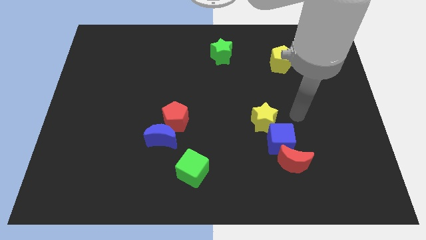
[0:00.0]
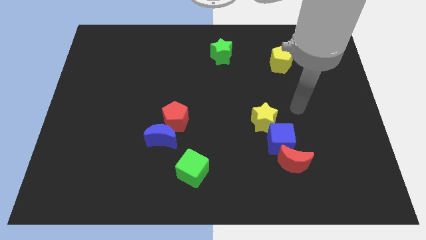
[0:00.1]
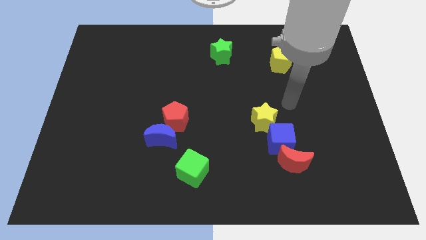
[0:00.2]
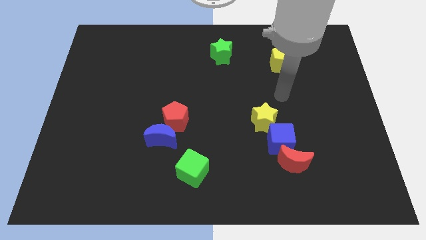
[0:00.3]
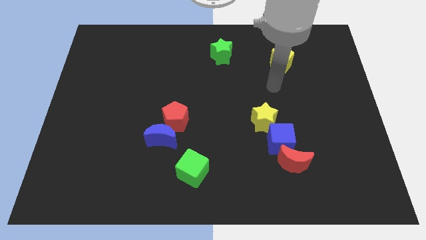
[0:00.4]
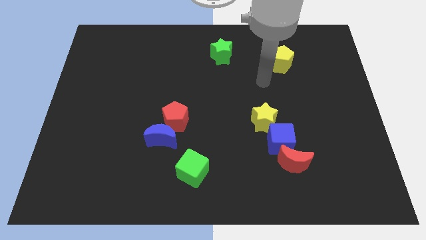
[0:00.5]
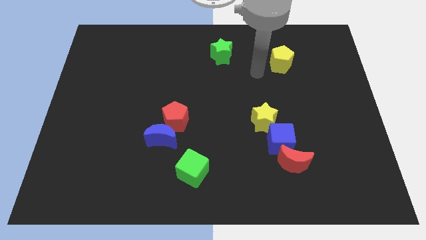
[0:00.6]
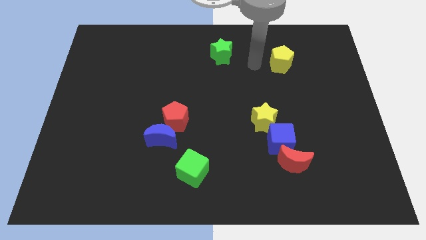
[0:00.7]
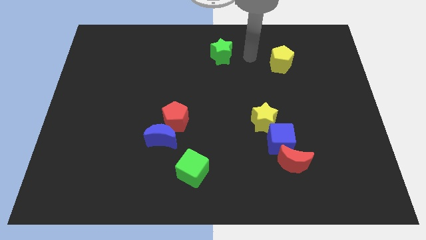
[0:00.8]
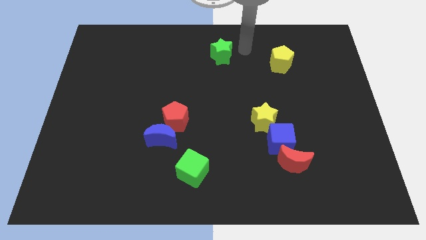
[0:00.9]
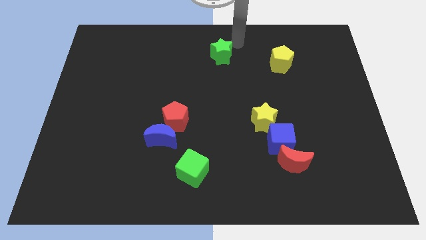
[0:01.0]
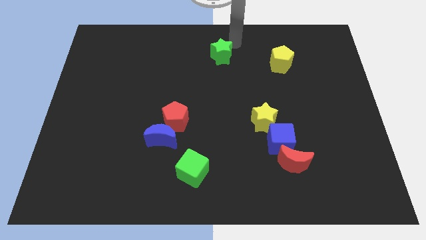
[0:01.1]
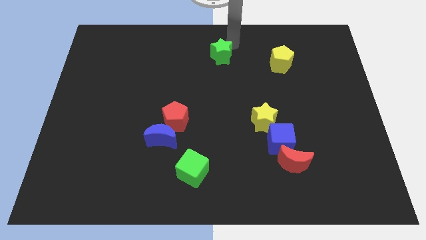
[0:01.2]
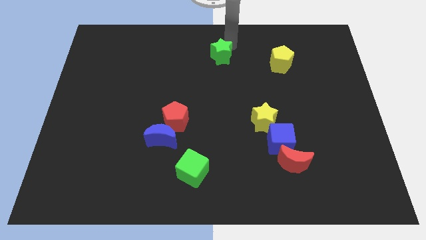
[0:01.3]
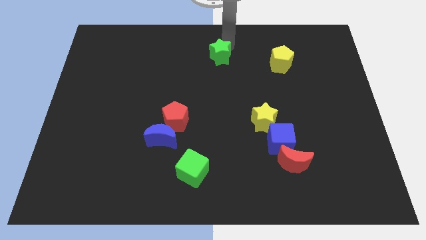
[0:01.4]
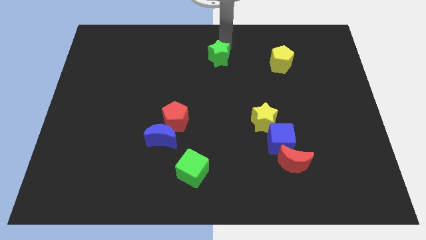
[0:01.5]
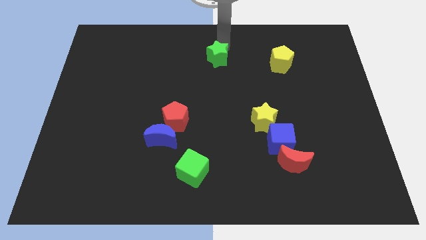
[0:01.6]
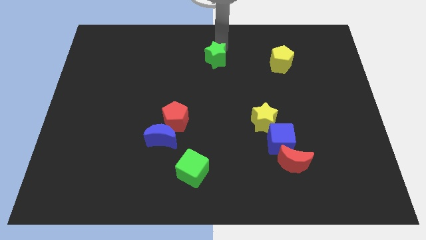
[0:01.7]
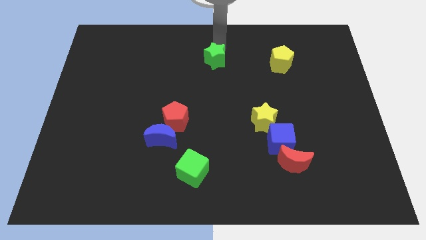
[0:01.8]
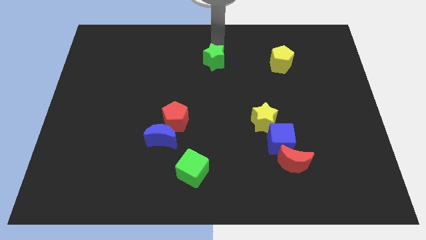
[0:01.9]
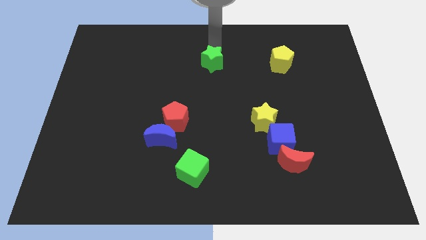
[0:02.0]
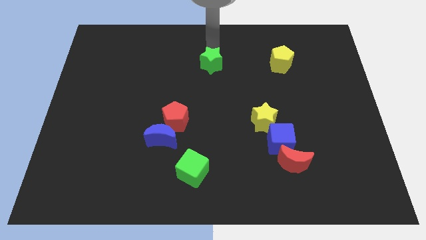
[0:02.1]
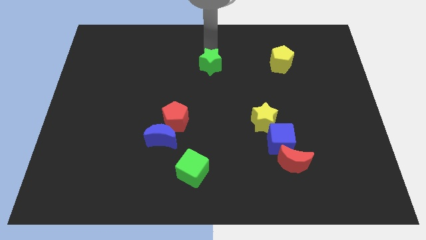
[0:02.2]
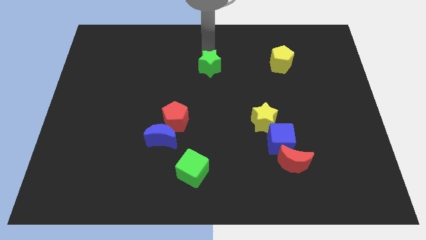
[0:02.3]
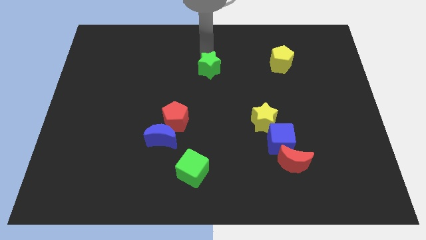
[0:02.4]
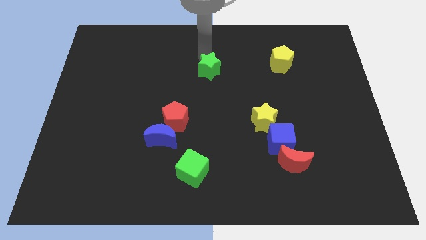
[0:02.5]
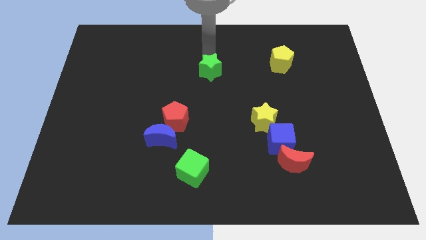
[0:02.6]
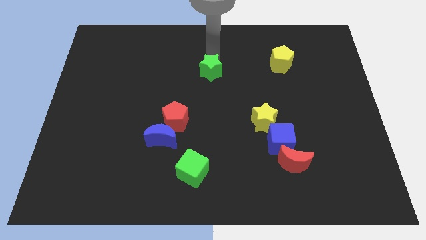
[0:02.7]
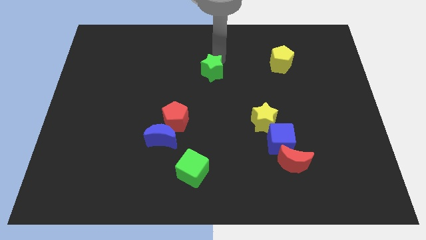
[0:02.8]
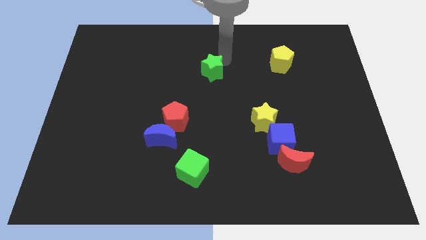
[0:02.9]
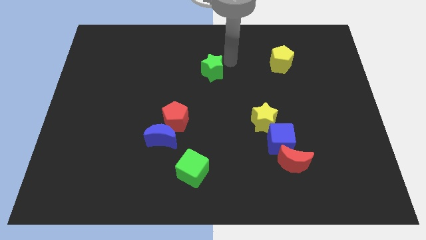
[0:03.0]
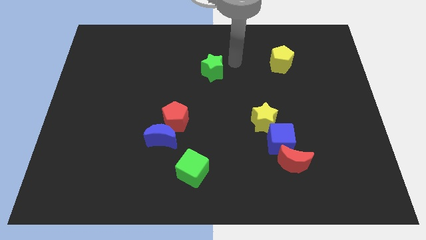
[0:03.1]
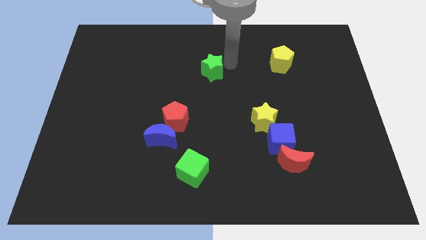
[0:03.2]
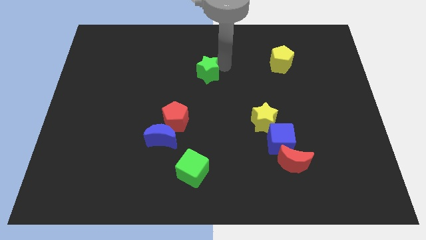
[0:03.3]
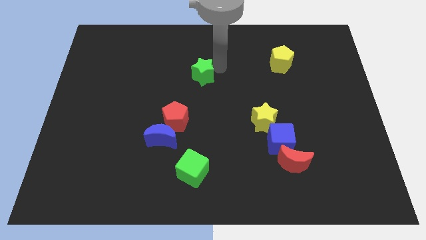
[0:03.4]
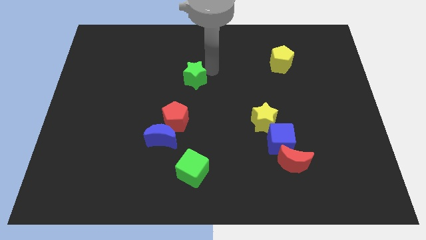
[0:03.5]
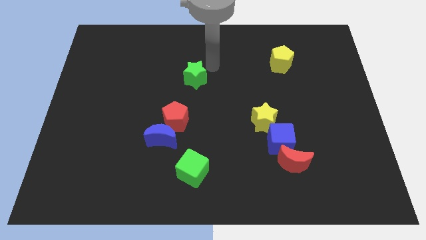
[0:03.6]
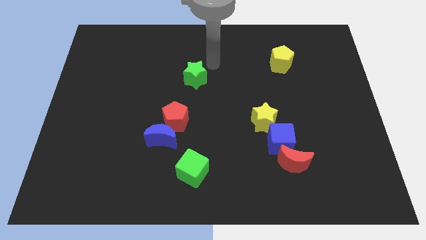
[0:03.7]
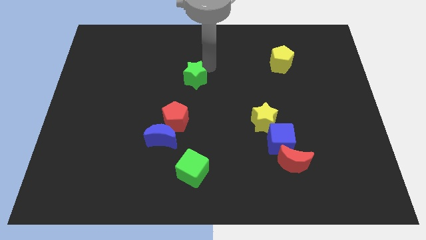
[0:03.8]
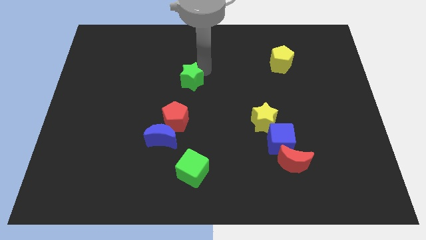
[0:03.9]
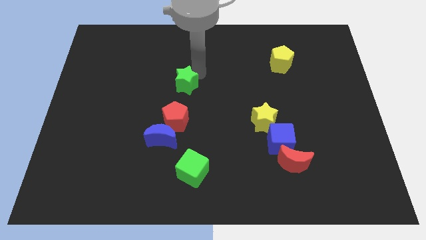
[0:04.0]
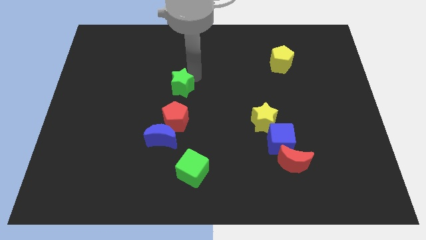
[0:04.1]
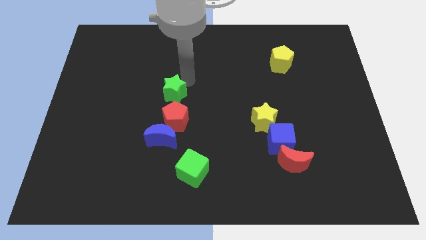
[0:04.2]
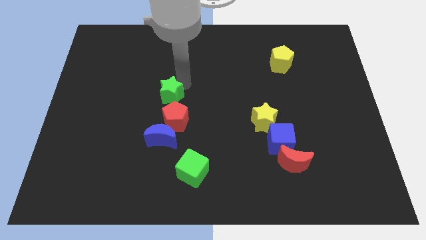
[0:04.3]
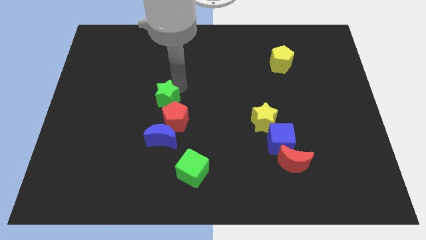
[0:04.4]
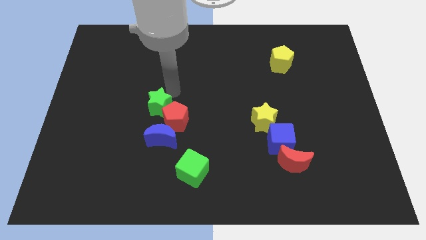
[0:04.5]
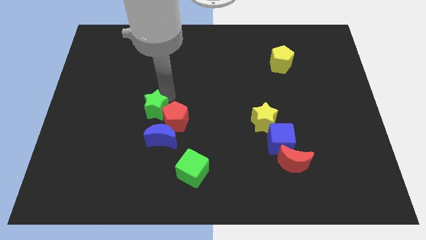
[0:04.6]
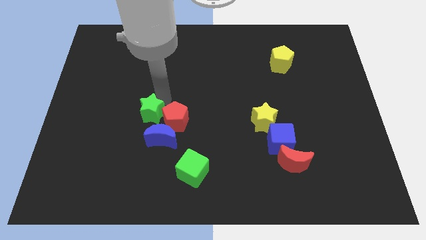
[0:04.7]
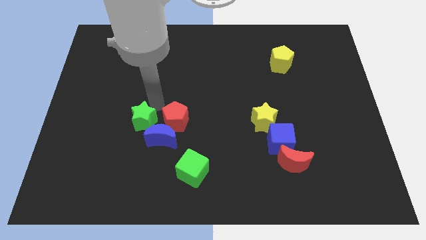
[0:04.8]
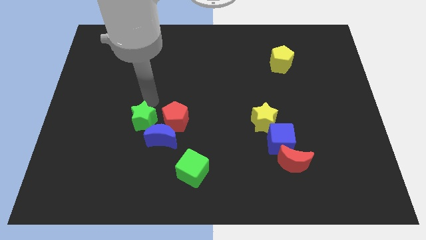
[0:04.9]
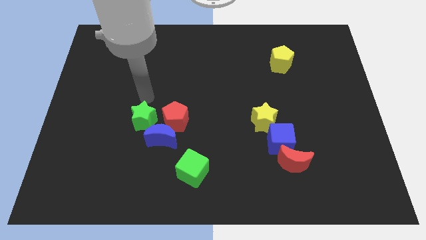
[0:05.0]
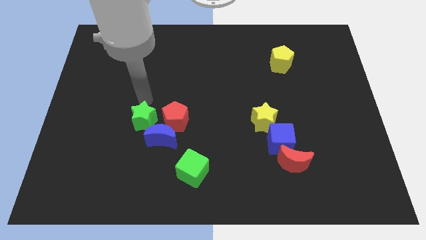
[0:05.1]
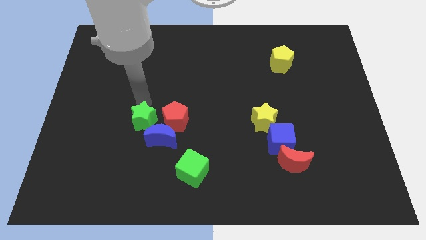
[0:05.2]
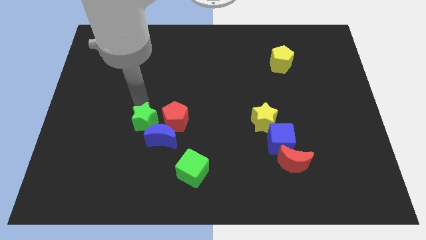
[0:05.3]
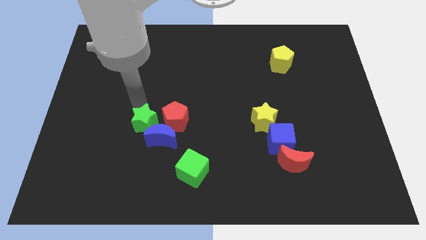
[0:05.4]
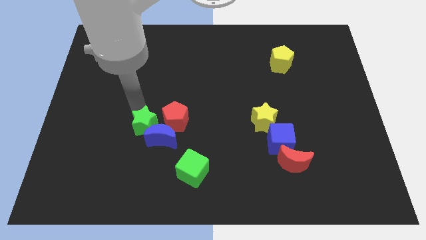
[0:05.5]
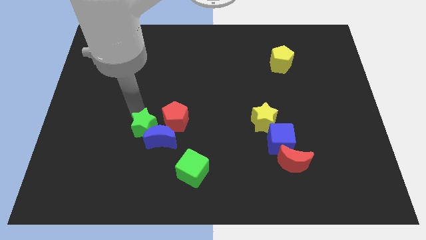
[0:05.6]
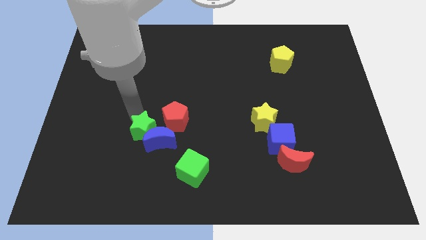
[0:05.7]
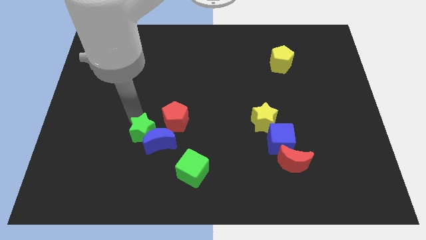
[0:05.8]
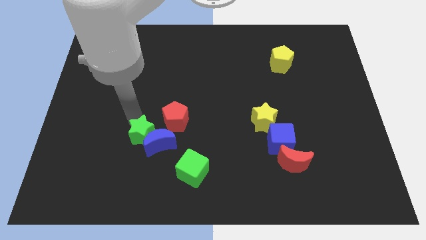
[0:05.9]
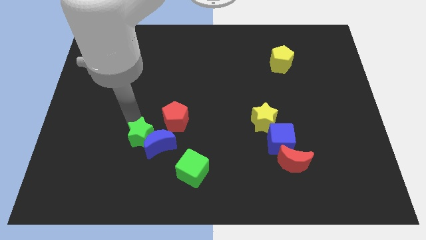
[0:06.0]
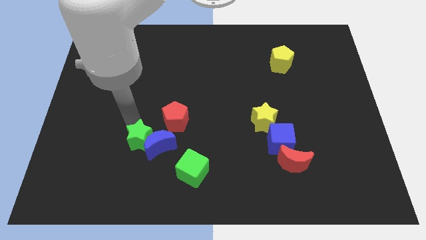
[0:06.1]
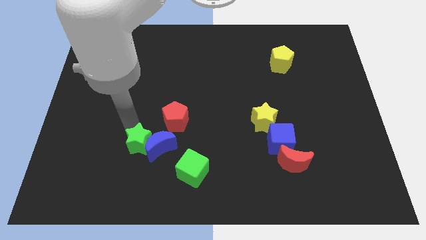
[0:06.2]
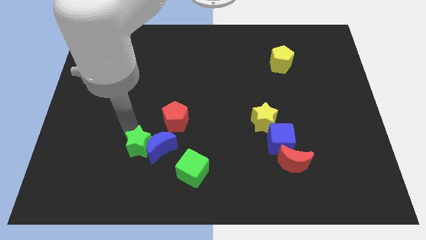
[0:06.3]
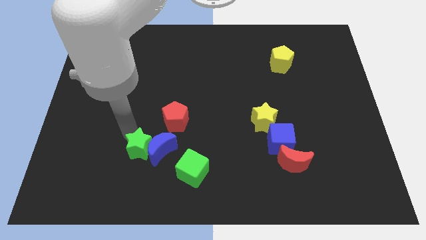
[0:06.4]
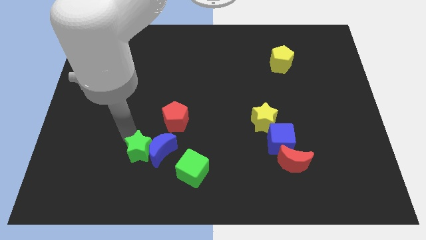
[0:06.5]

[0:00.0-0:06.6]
push the green star just left of the green cube

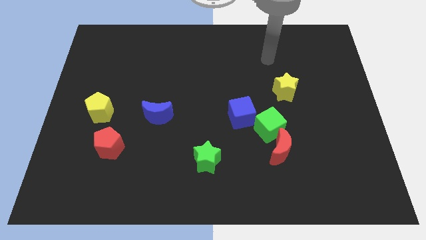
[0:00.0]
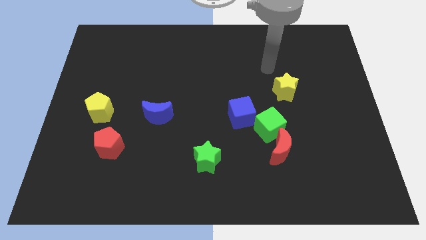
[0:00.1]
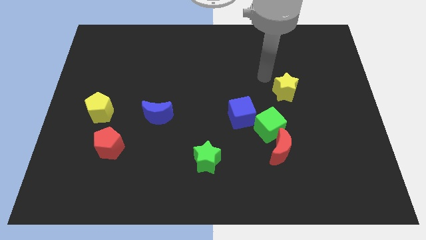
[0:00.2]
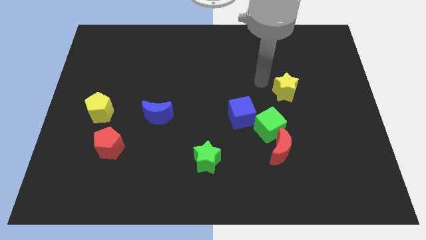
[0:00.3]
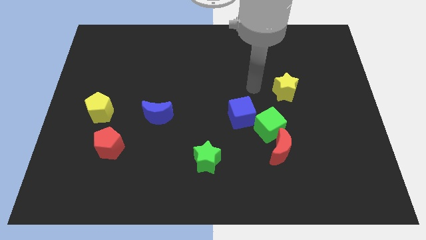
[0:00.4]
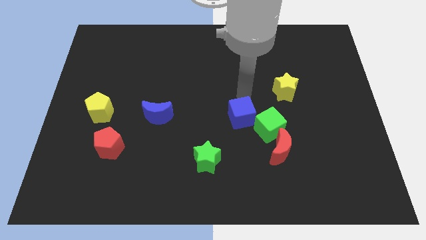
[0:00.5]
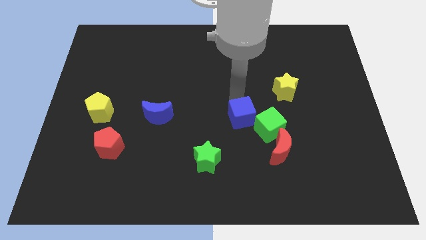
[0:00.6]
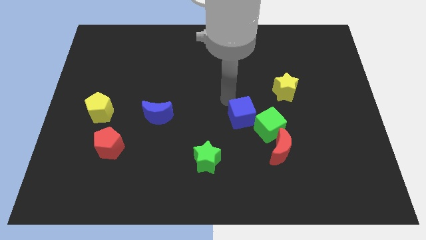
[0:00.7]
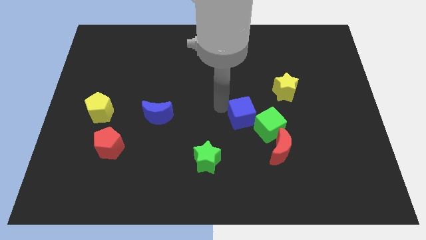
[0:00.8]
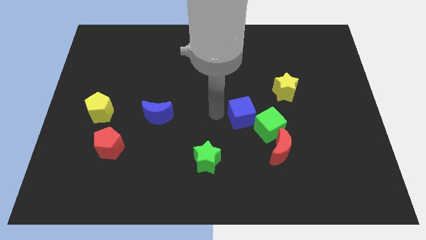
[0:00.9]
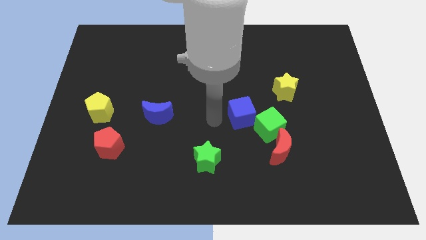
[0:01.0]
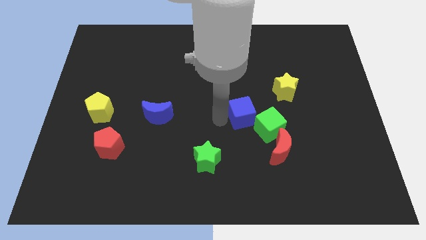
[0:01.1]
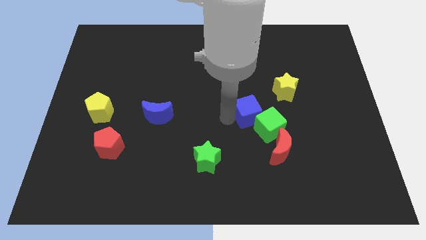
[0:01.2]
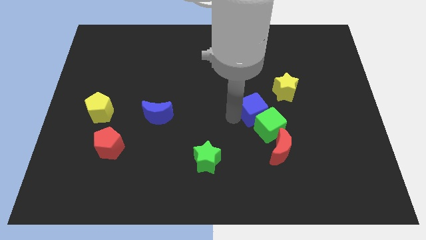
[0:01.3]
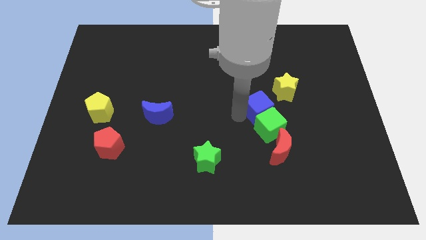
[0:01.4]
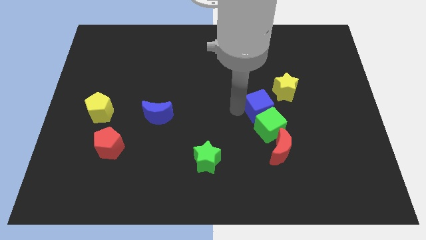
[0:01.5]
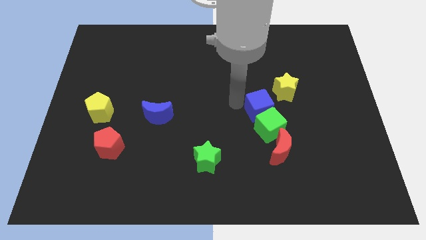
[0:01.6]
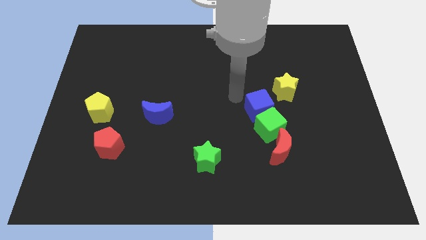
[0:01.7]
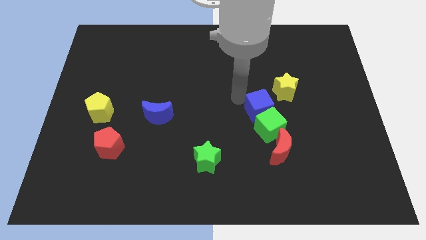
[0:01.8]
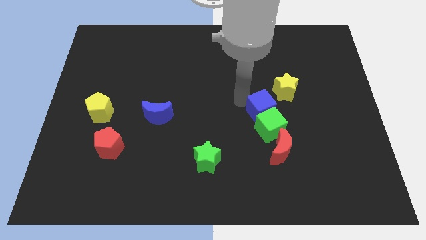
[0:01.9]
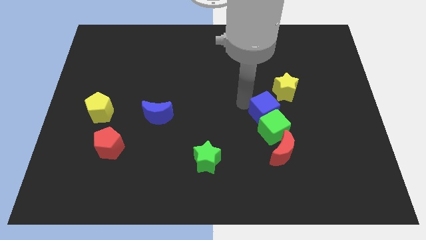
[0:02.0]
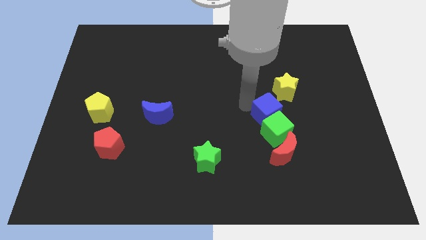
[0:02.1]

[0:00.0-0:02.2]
slide the blue cube to the bottom side of the yellow star
